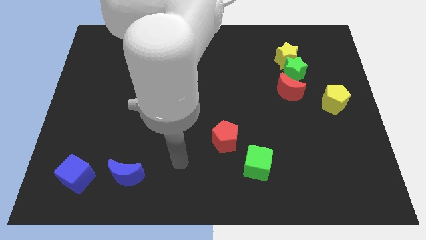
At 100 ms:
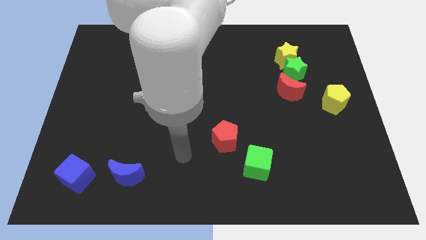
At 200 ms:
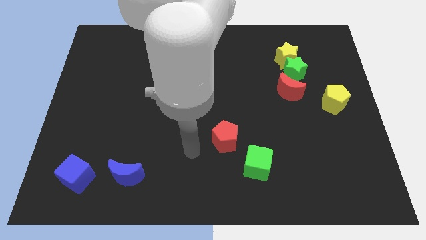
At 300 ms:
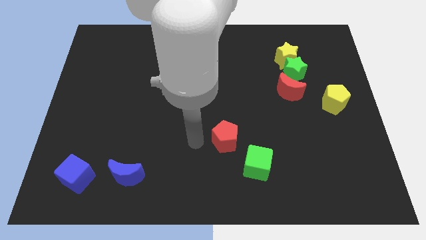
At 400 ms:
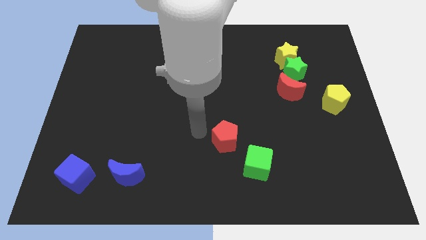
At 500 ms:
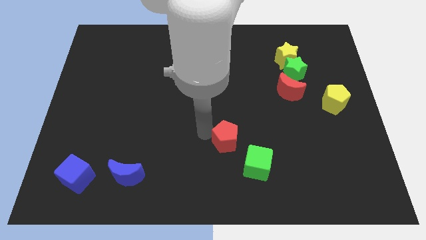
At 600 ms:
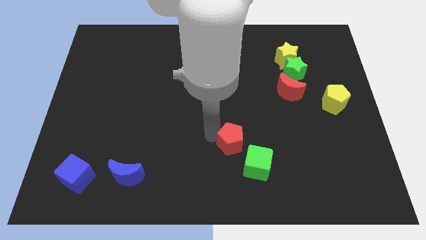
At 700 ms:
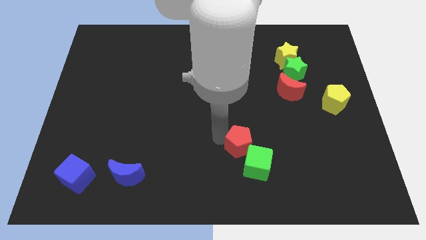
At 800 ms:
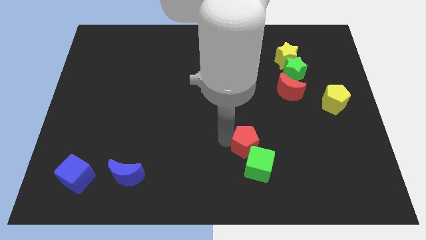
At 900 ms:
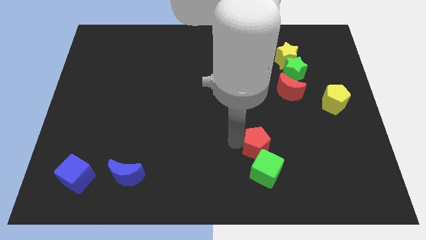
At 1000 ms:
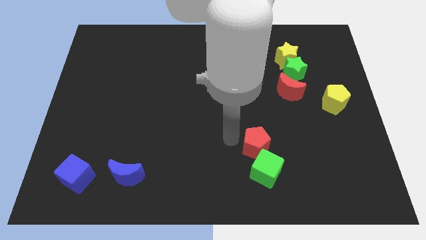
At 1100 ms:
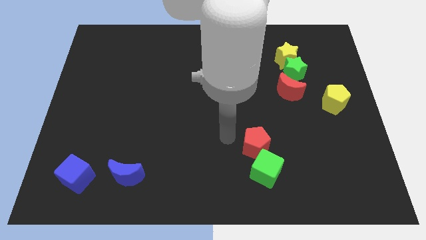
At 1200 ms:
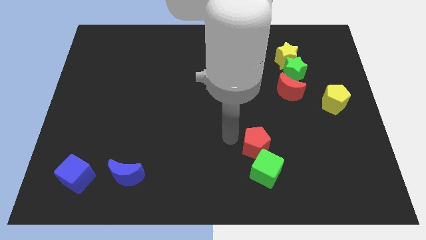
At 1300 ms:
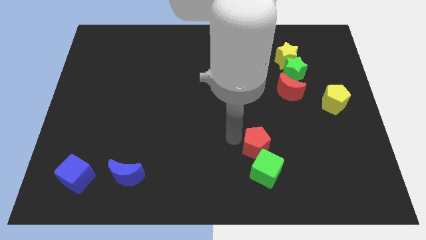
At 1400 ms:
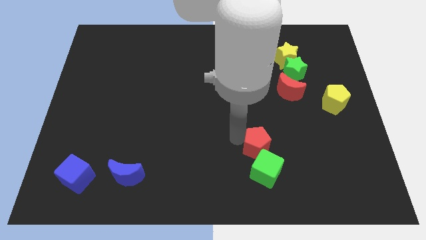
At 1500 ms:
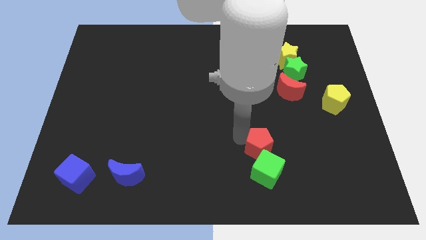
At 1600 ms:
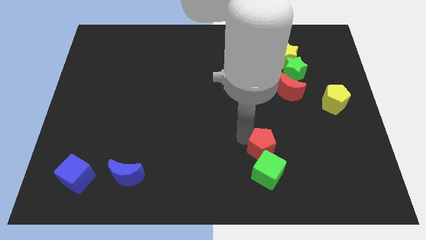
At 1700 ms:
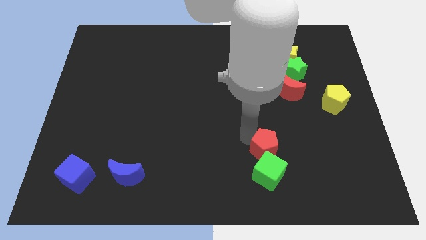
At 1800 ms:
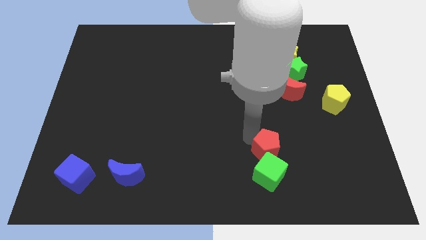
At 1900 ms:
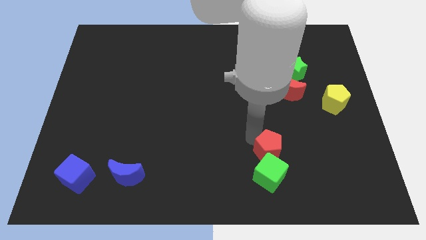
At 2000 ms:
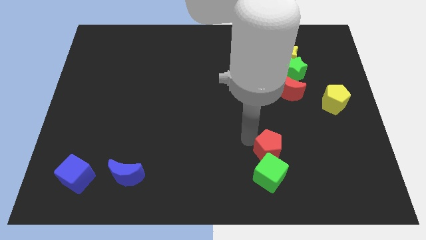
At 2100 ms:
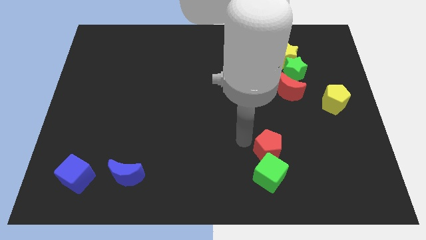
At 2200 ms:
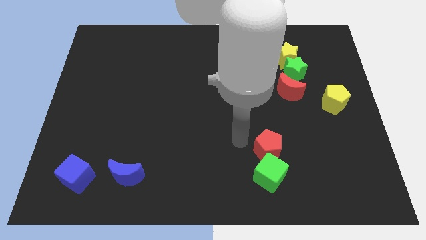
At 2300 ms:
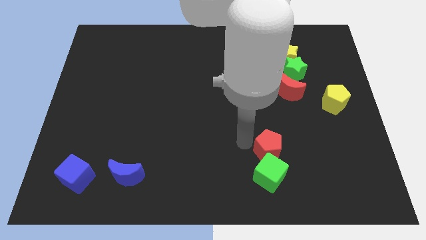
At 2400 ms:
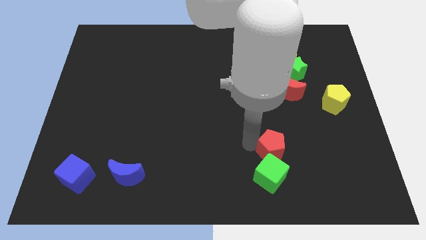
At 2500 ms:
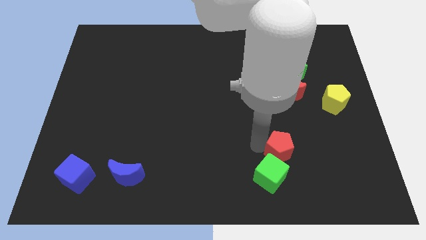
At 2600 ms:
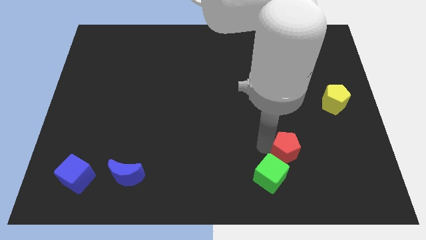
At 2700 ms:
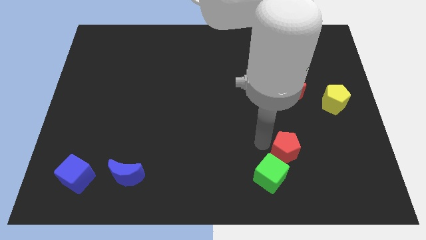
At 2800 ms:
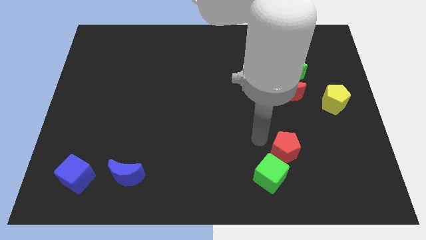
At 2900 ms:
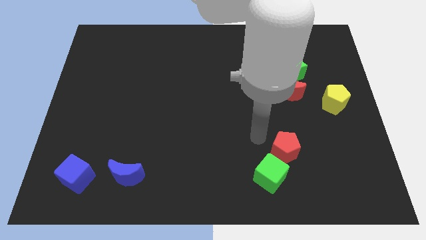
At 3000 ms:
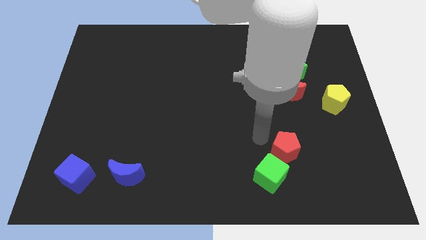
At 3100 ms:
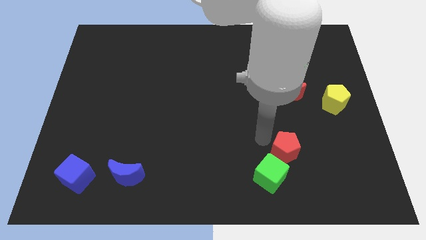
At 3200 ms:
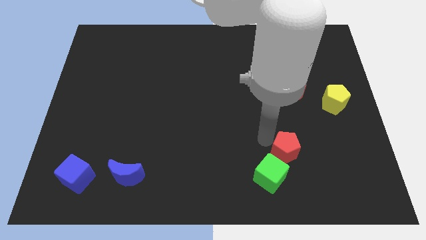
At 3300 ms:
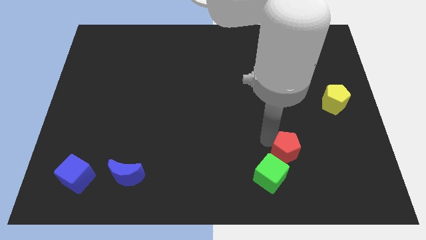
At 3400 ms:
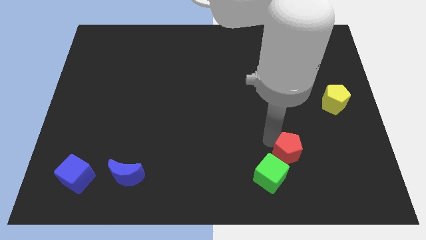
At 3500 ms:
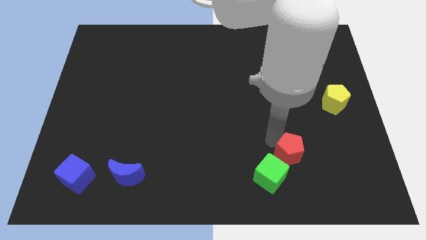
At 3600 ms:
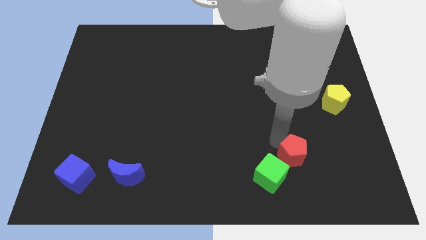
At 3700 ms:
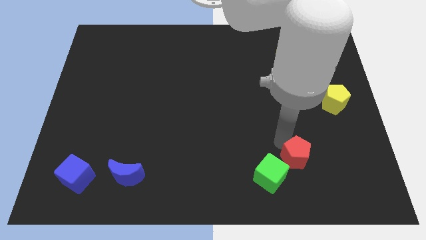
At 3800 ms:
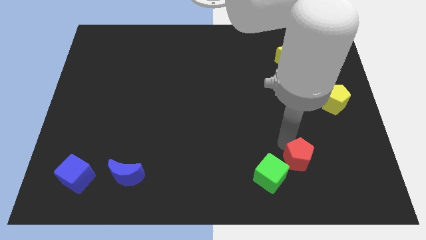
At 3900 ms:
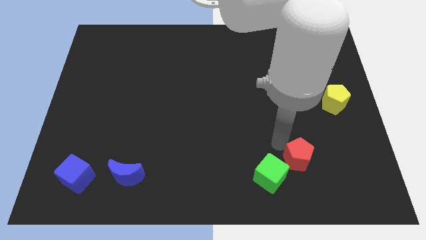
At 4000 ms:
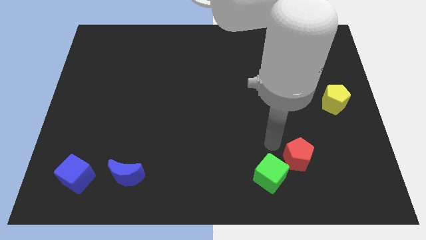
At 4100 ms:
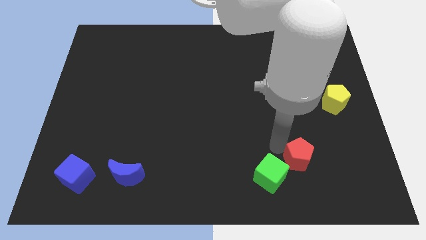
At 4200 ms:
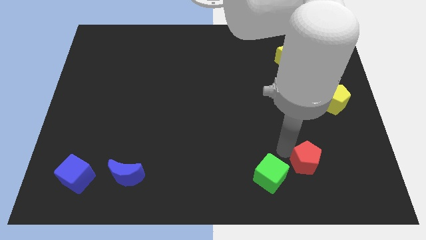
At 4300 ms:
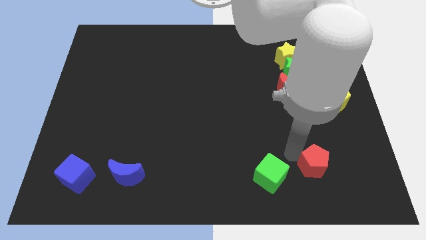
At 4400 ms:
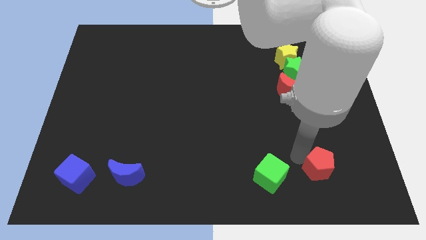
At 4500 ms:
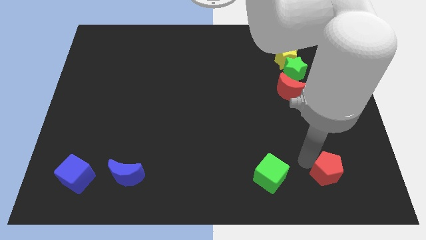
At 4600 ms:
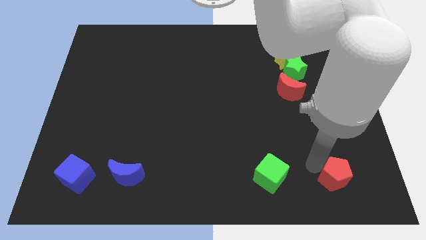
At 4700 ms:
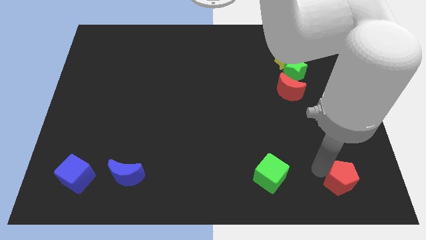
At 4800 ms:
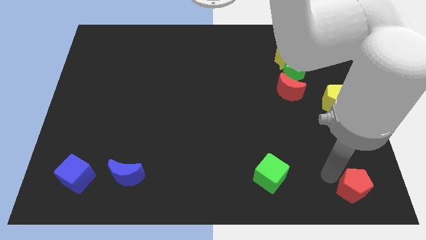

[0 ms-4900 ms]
put the red pentagon to the lower right corner

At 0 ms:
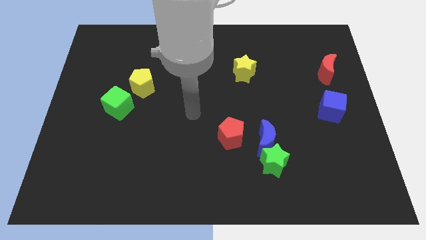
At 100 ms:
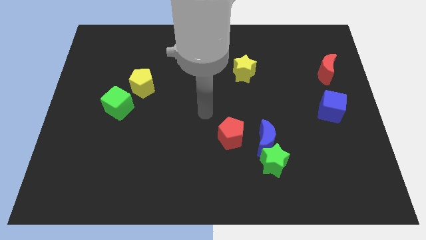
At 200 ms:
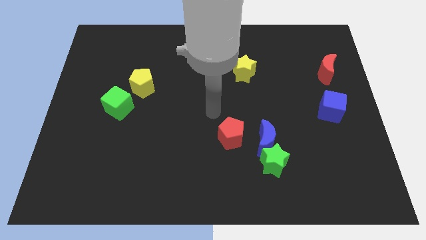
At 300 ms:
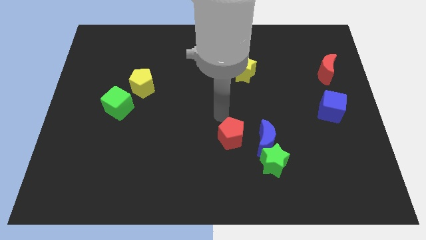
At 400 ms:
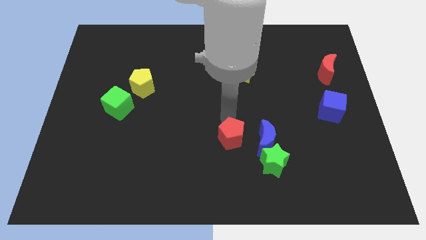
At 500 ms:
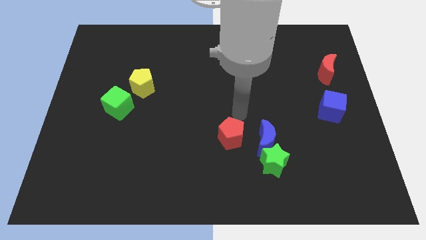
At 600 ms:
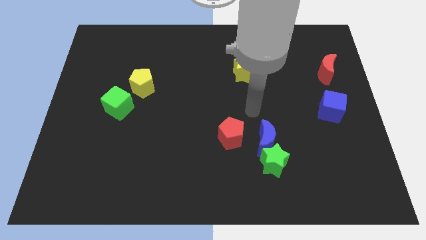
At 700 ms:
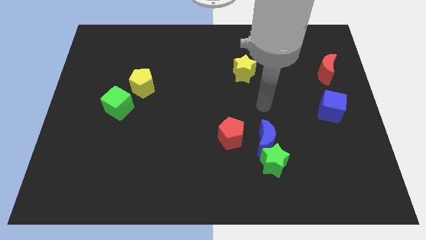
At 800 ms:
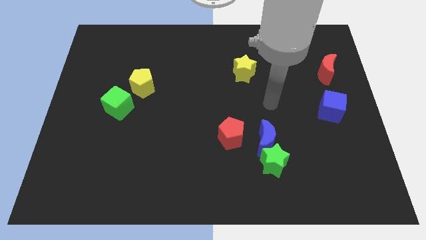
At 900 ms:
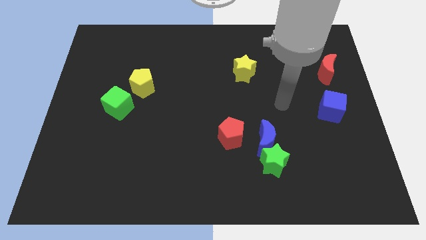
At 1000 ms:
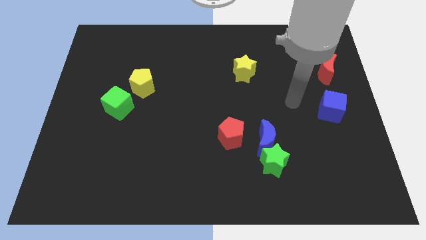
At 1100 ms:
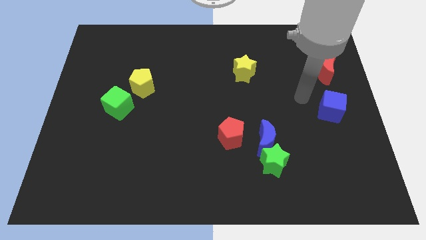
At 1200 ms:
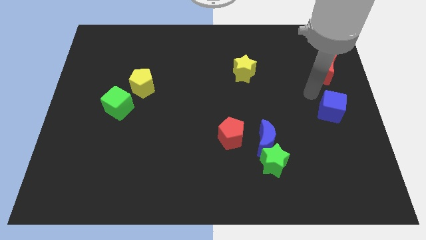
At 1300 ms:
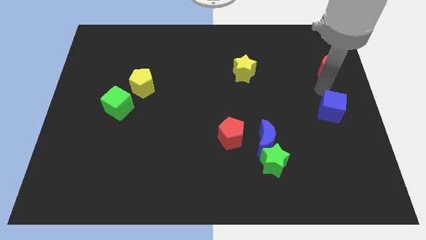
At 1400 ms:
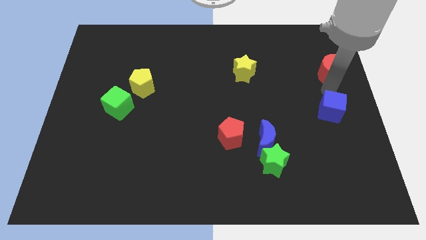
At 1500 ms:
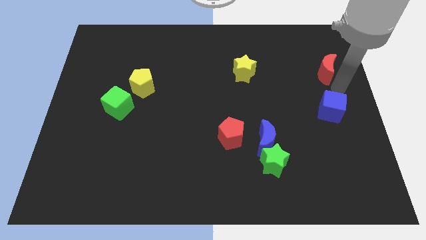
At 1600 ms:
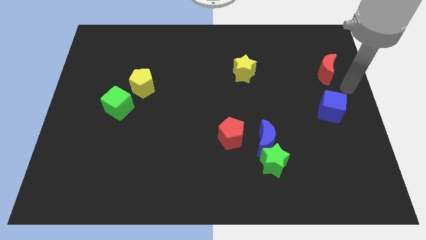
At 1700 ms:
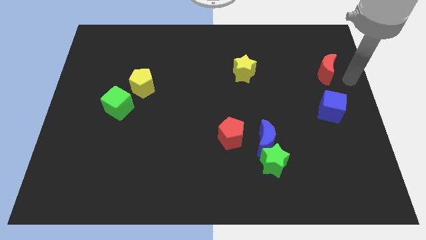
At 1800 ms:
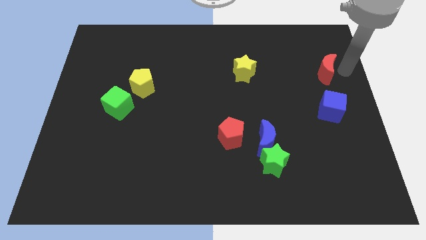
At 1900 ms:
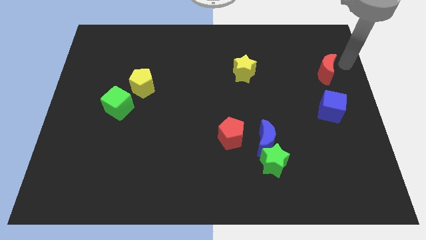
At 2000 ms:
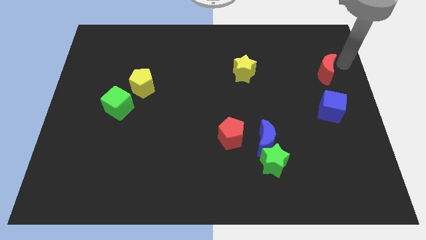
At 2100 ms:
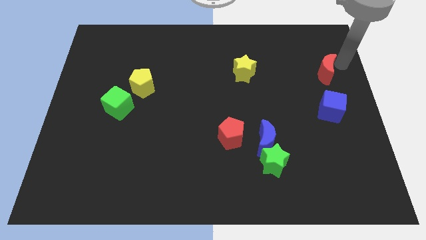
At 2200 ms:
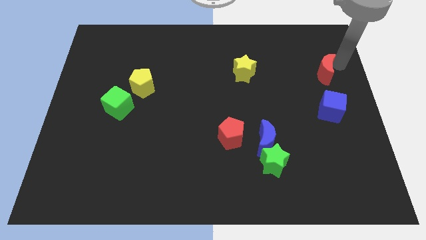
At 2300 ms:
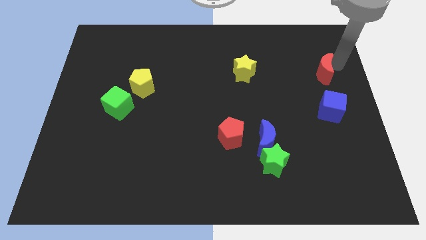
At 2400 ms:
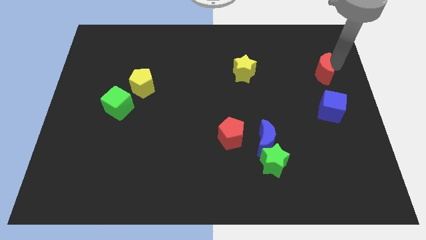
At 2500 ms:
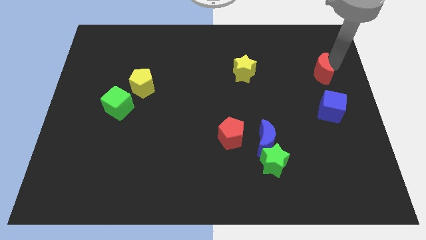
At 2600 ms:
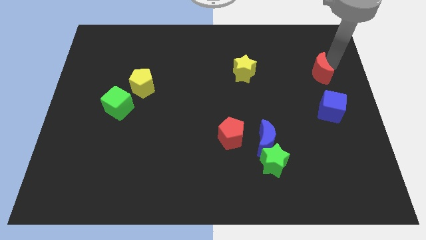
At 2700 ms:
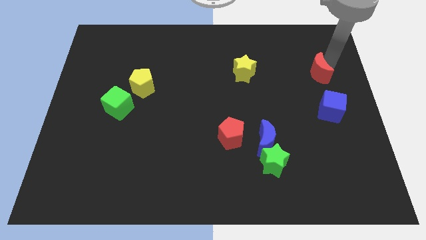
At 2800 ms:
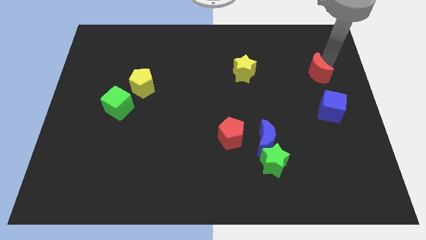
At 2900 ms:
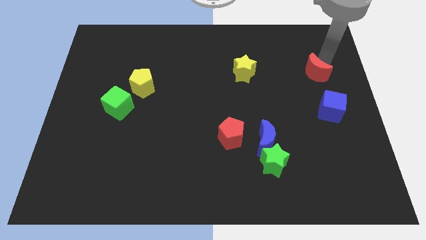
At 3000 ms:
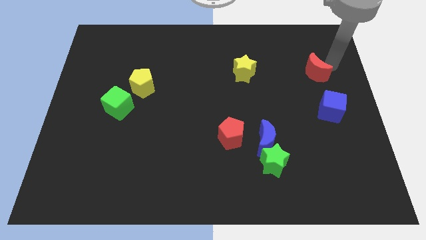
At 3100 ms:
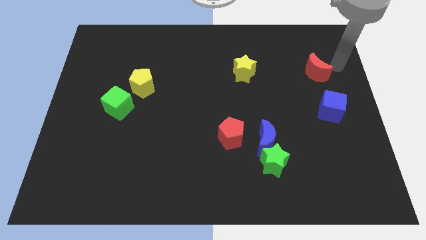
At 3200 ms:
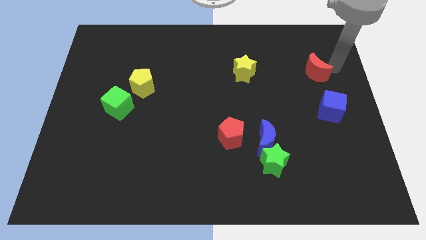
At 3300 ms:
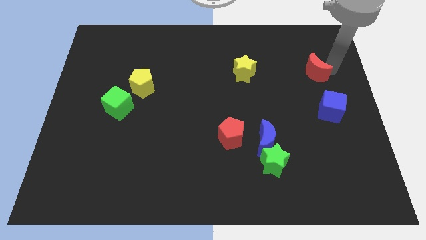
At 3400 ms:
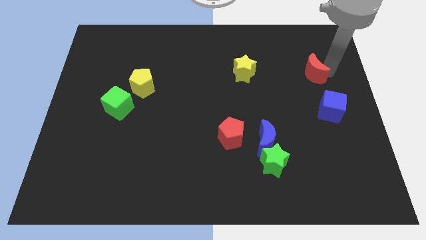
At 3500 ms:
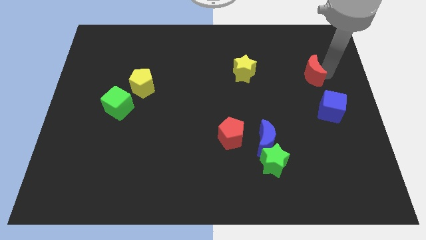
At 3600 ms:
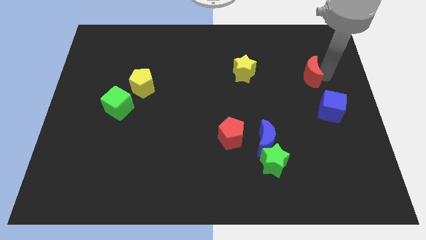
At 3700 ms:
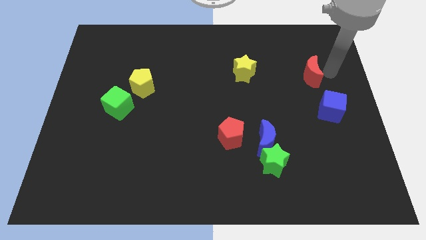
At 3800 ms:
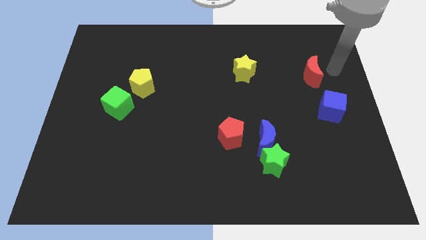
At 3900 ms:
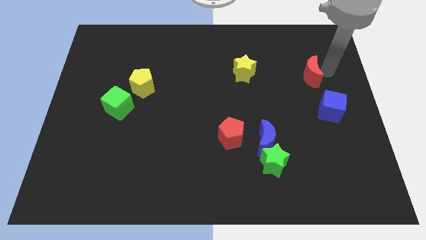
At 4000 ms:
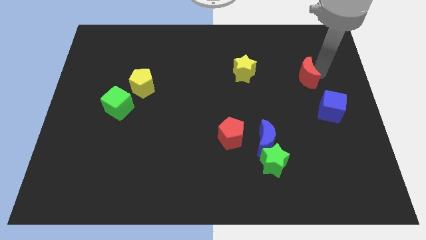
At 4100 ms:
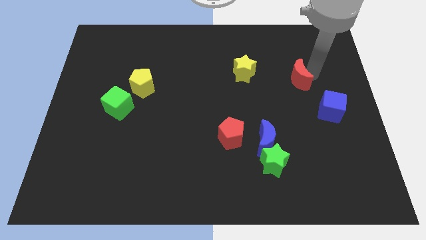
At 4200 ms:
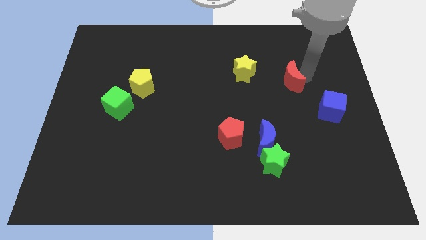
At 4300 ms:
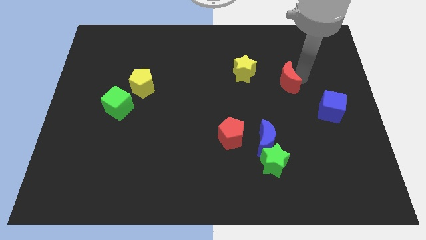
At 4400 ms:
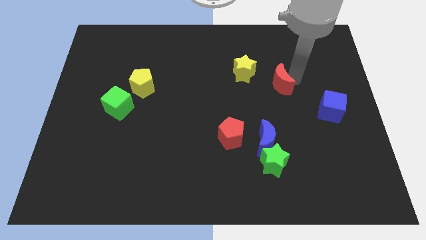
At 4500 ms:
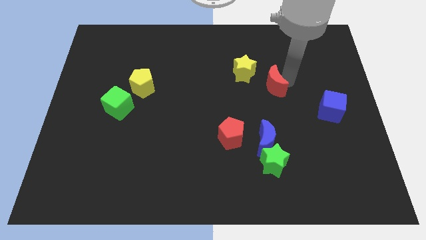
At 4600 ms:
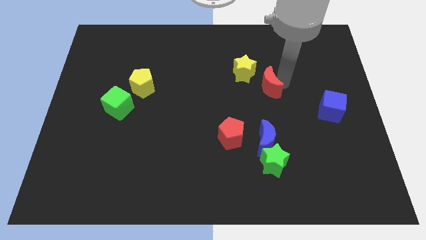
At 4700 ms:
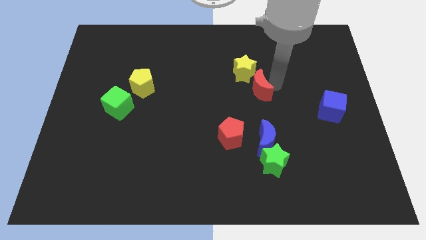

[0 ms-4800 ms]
push the red moon to the center of the board
